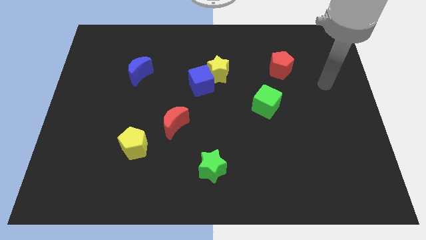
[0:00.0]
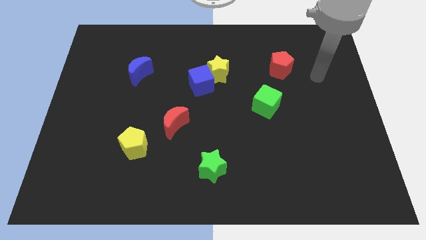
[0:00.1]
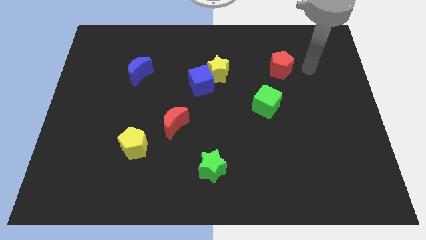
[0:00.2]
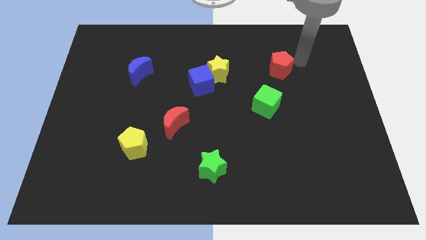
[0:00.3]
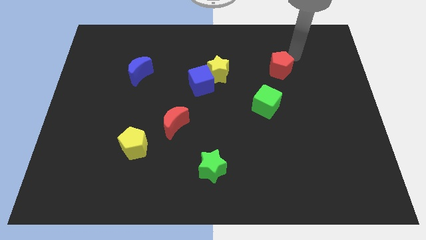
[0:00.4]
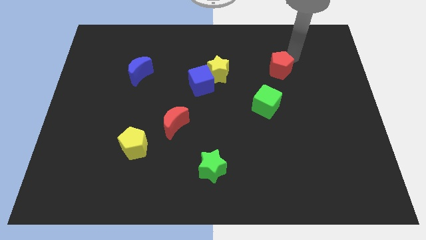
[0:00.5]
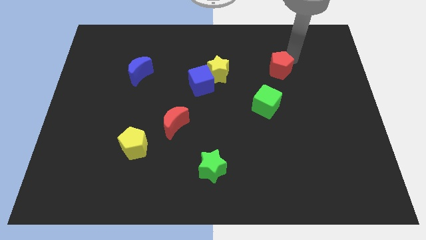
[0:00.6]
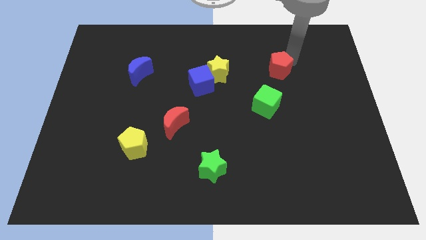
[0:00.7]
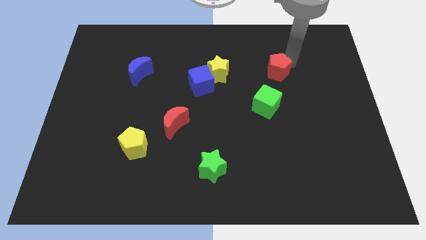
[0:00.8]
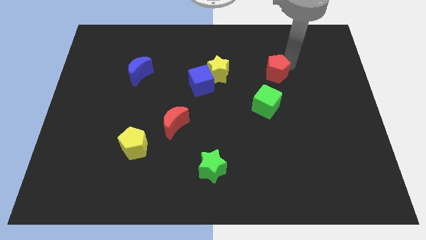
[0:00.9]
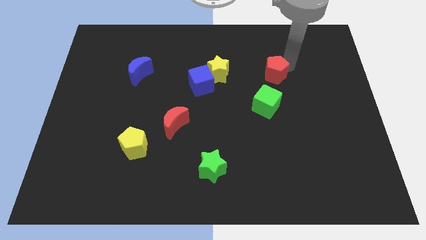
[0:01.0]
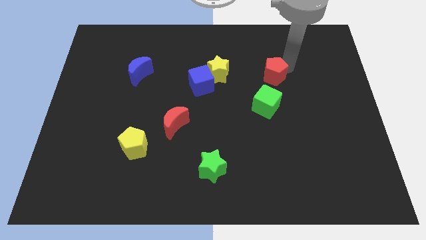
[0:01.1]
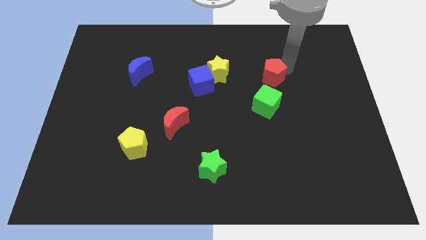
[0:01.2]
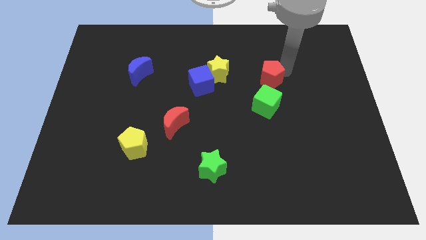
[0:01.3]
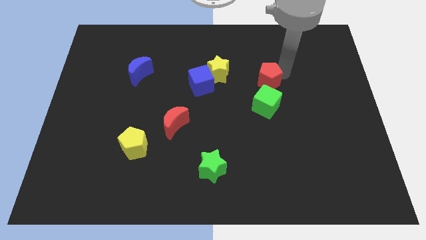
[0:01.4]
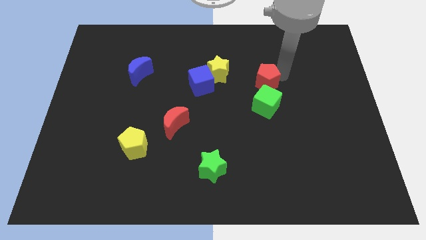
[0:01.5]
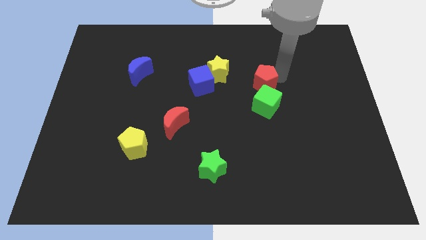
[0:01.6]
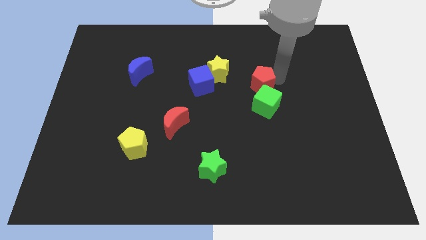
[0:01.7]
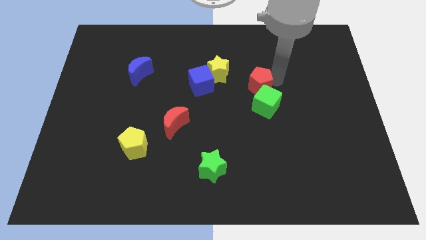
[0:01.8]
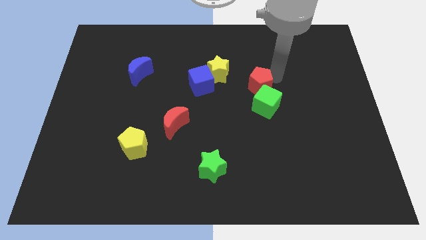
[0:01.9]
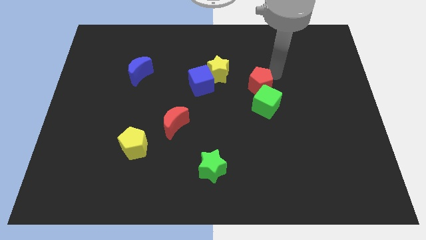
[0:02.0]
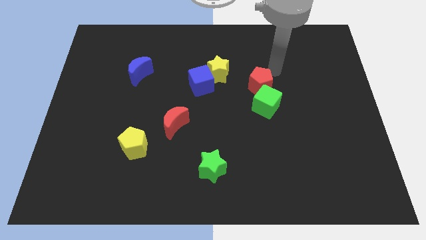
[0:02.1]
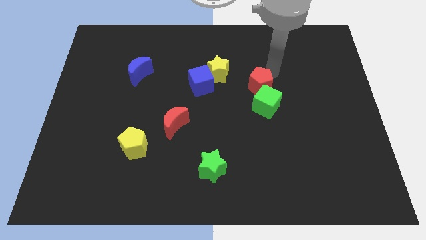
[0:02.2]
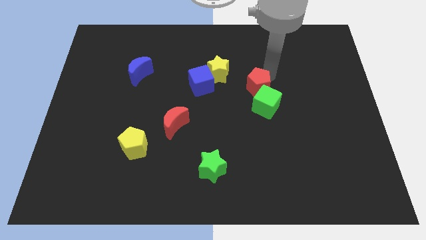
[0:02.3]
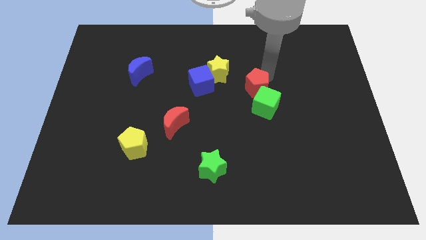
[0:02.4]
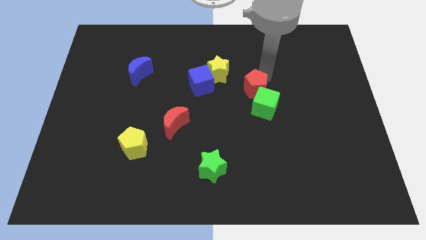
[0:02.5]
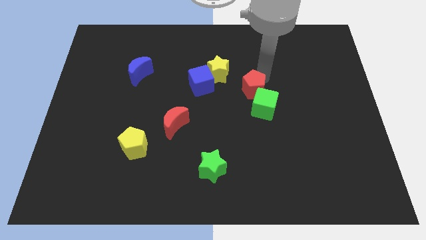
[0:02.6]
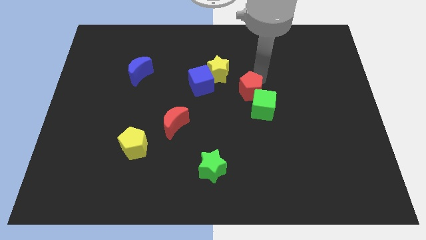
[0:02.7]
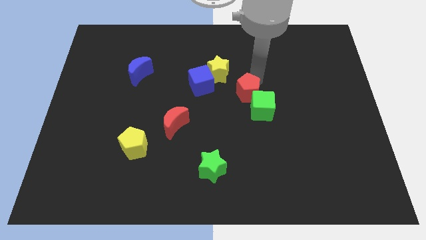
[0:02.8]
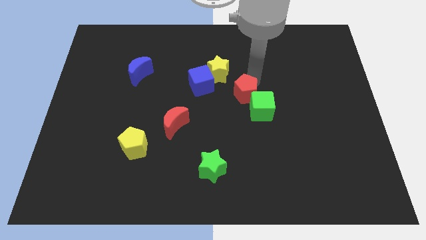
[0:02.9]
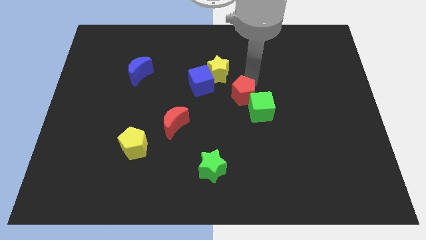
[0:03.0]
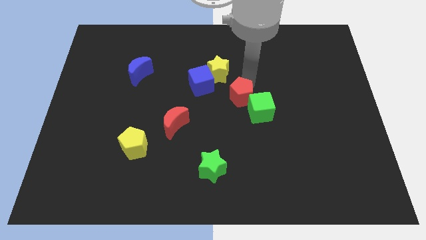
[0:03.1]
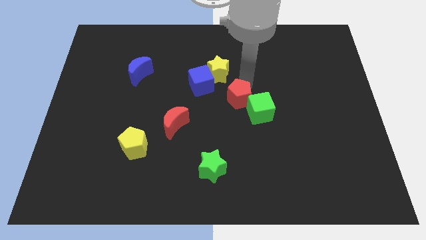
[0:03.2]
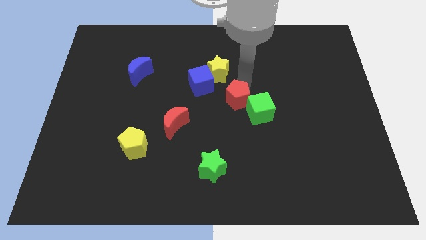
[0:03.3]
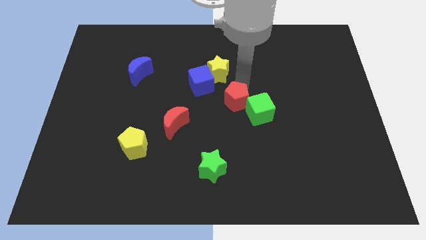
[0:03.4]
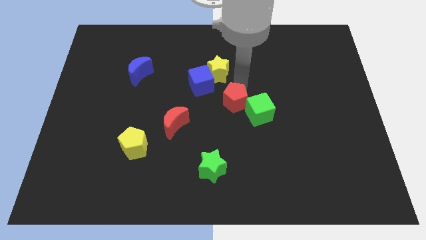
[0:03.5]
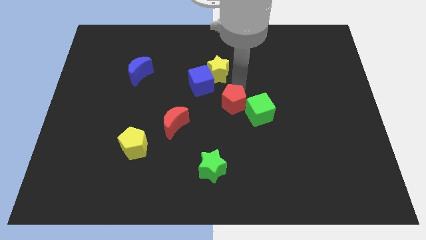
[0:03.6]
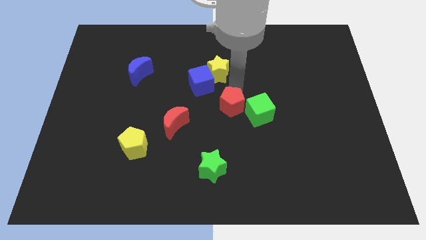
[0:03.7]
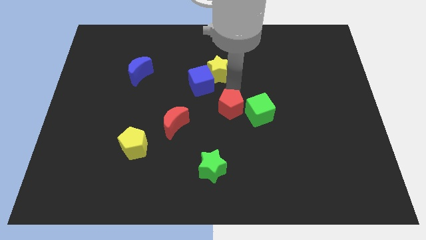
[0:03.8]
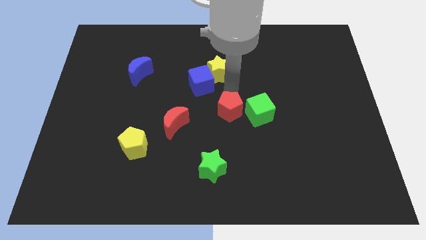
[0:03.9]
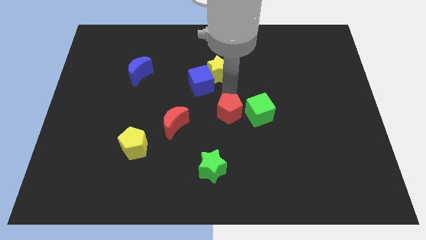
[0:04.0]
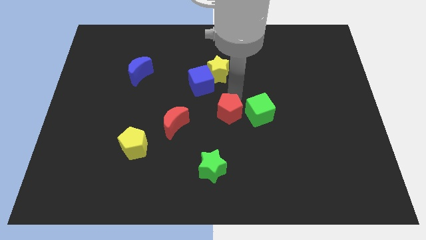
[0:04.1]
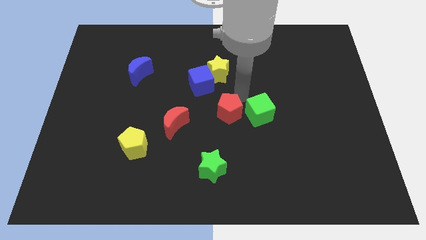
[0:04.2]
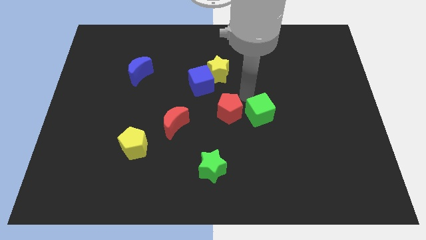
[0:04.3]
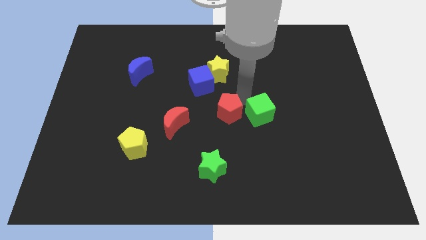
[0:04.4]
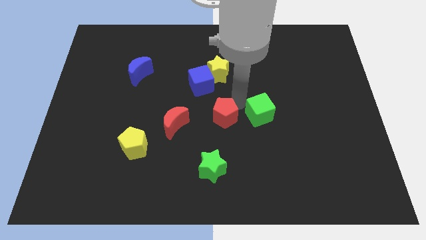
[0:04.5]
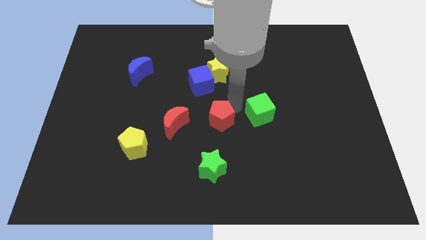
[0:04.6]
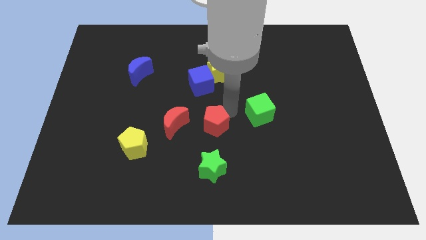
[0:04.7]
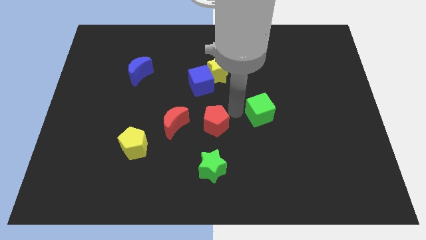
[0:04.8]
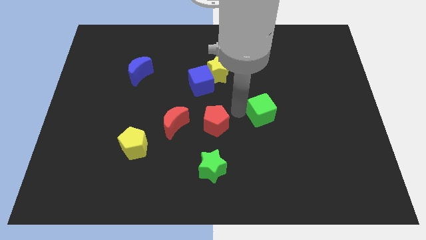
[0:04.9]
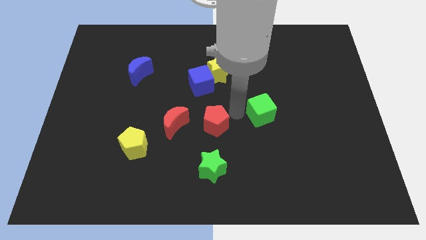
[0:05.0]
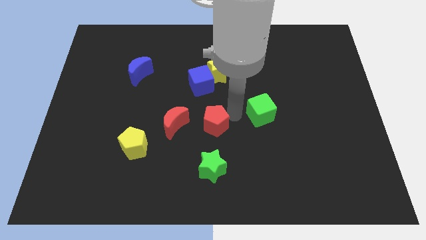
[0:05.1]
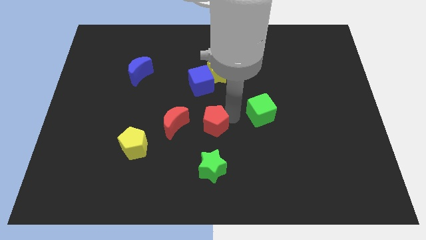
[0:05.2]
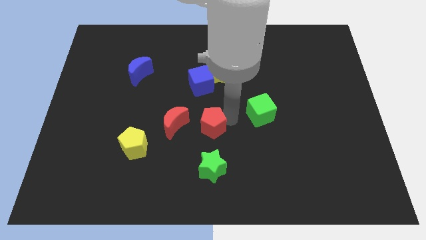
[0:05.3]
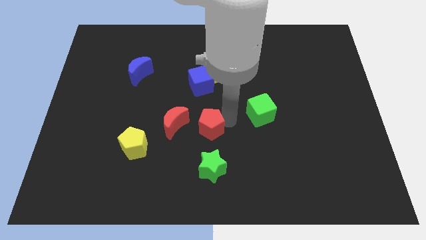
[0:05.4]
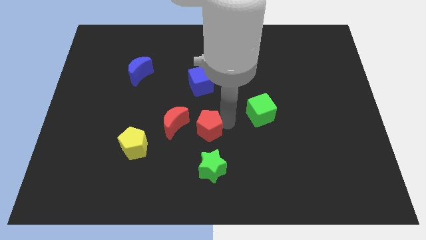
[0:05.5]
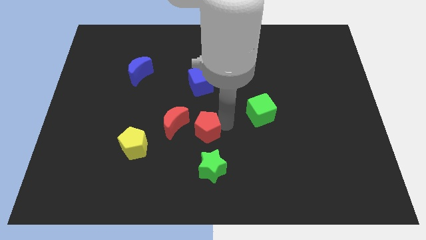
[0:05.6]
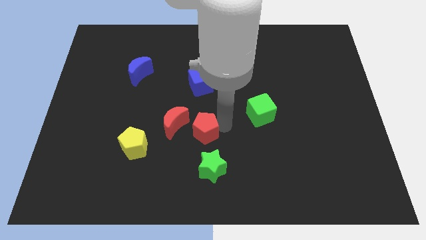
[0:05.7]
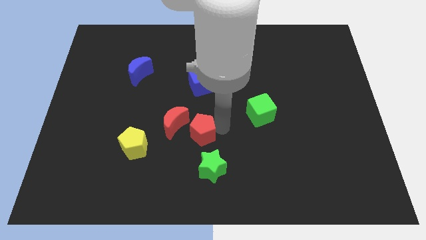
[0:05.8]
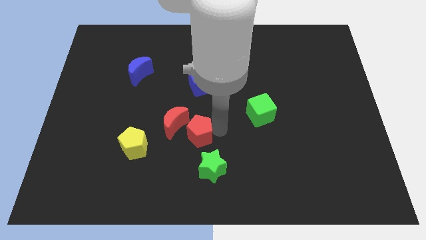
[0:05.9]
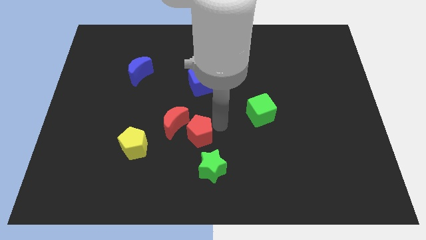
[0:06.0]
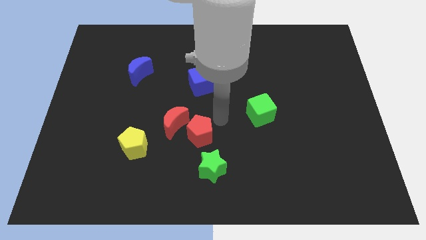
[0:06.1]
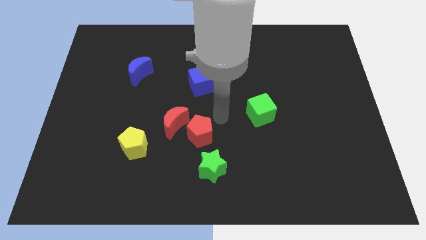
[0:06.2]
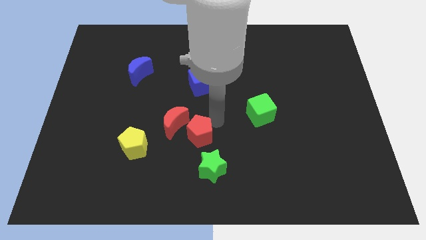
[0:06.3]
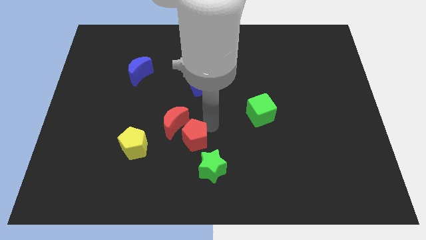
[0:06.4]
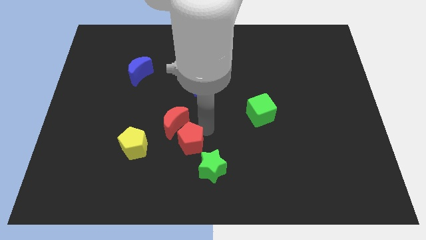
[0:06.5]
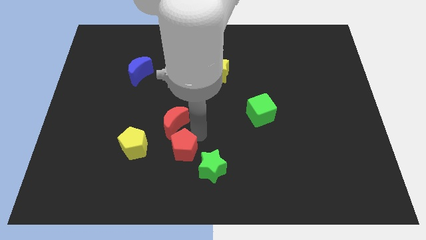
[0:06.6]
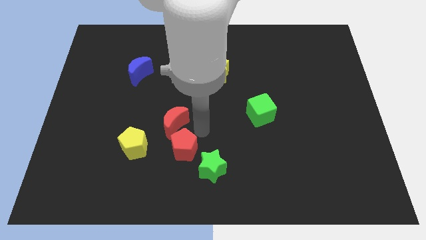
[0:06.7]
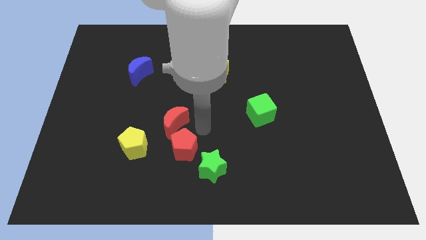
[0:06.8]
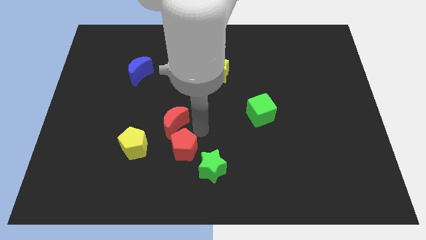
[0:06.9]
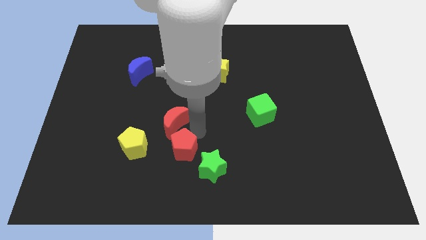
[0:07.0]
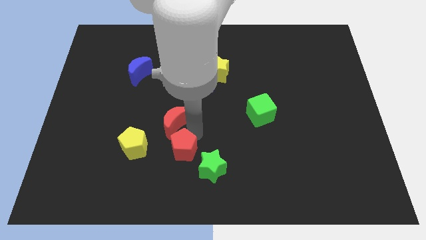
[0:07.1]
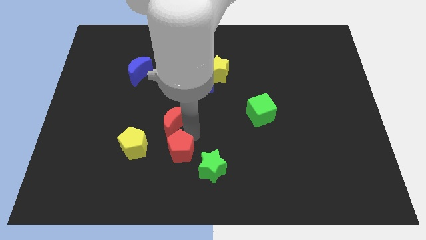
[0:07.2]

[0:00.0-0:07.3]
put the red pentagon to the left of the green star

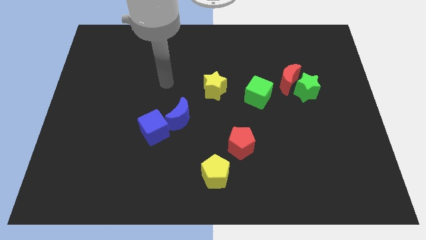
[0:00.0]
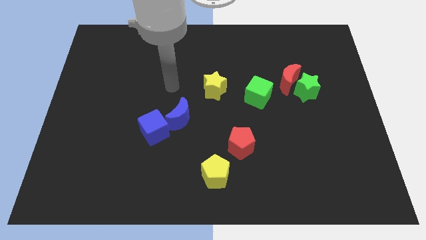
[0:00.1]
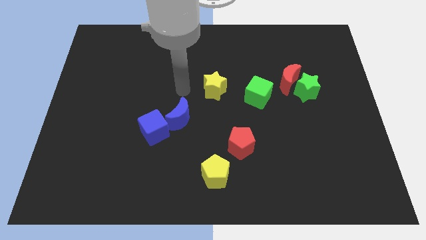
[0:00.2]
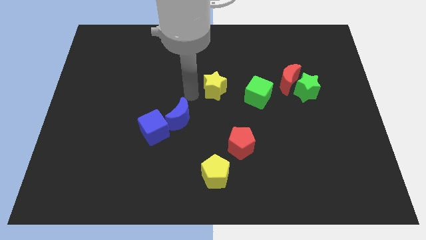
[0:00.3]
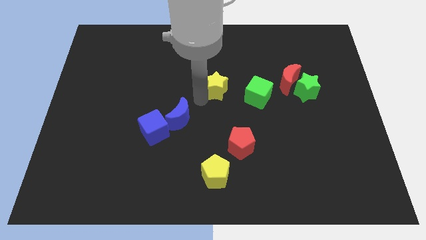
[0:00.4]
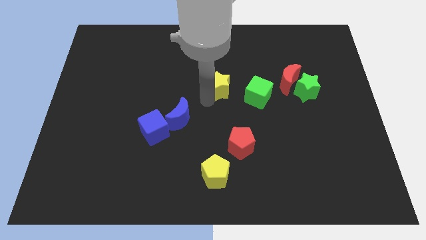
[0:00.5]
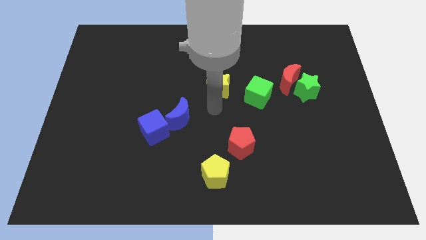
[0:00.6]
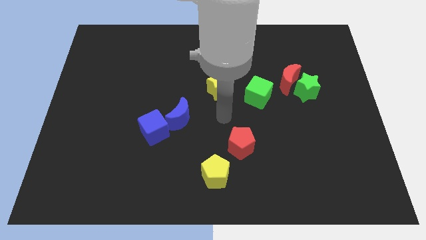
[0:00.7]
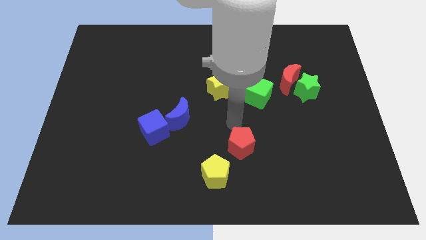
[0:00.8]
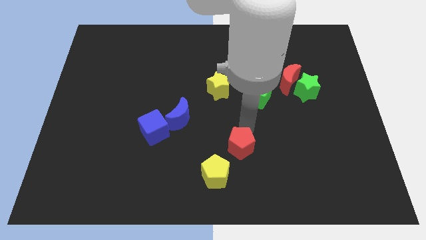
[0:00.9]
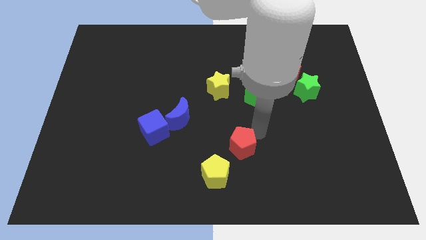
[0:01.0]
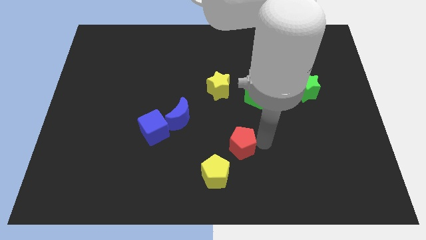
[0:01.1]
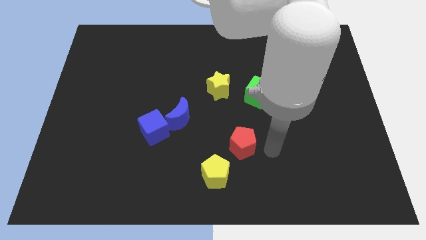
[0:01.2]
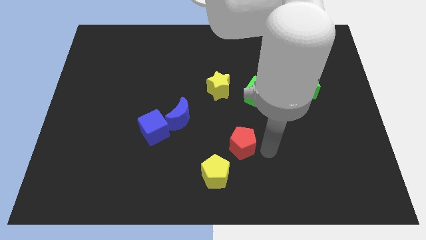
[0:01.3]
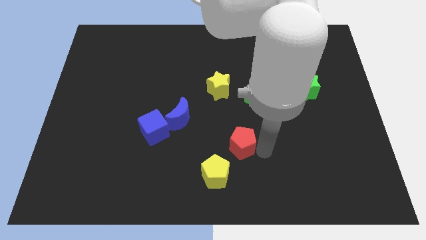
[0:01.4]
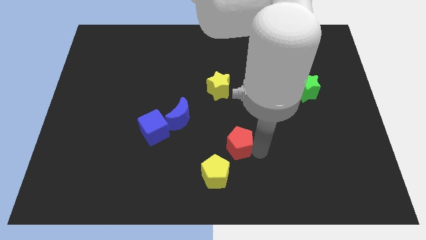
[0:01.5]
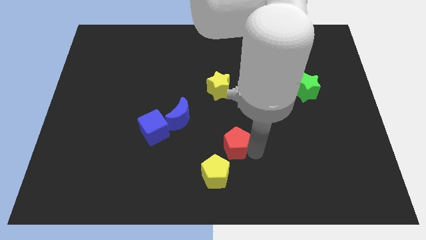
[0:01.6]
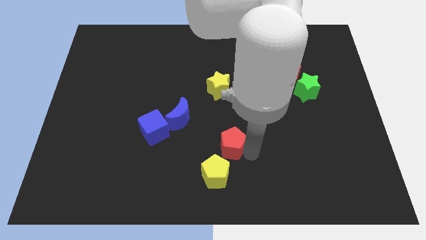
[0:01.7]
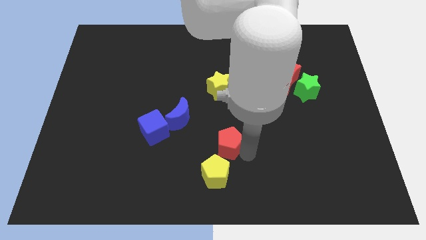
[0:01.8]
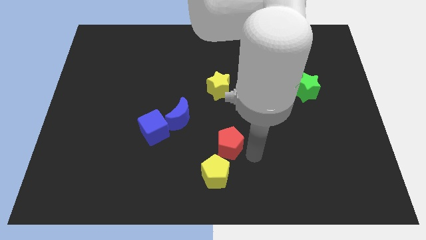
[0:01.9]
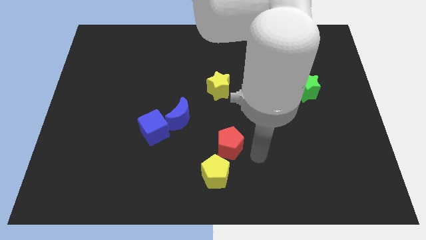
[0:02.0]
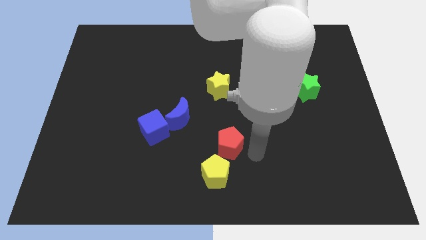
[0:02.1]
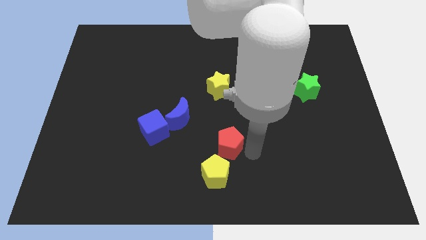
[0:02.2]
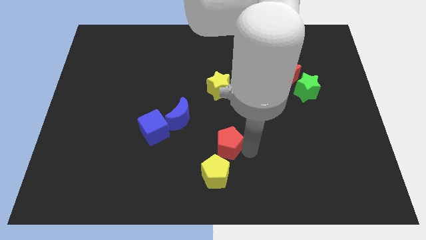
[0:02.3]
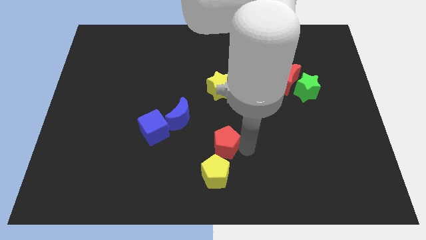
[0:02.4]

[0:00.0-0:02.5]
slide the red pentagon to the bottom right of the blue moon
